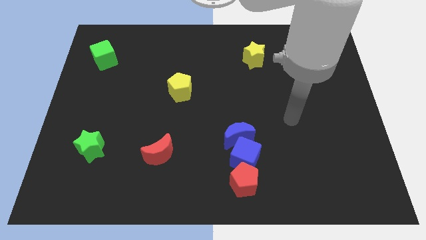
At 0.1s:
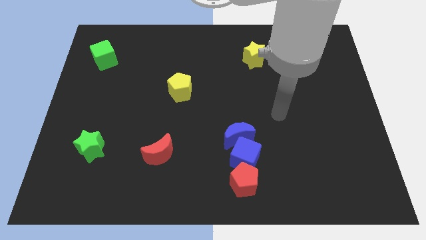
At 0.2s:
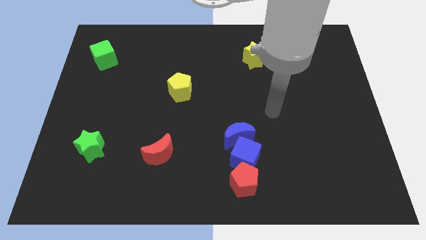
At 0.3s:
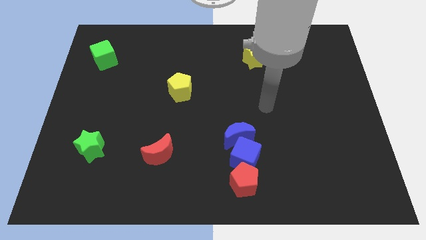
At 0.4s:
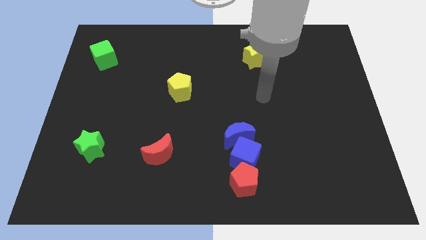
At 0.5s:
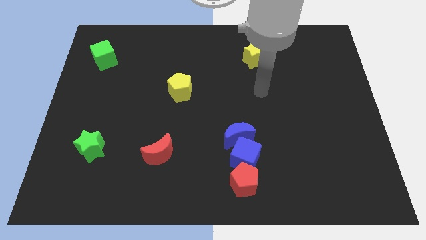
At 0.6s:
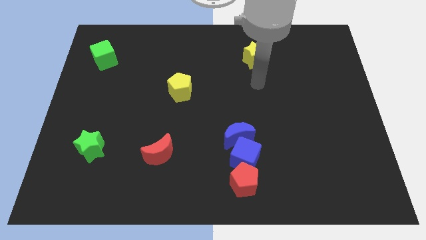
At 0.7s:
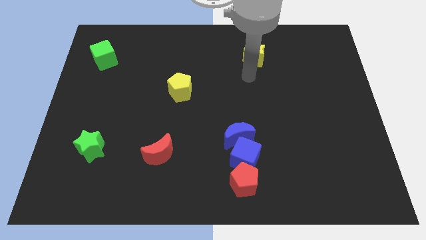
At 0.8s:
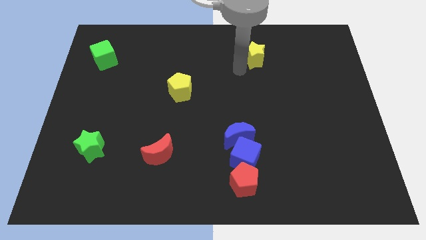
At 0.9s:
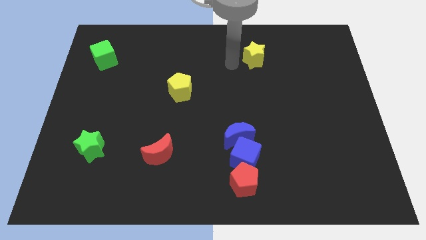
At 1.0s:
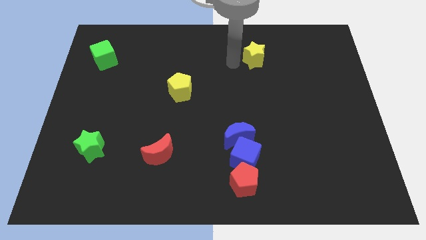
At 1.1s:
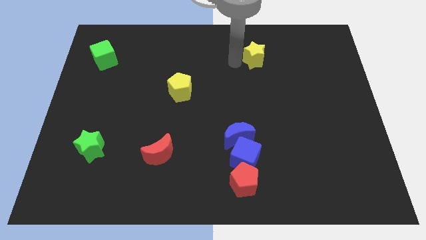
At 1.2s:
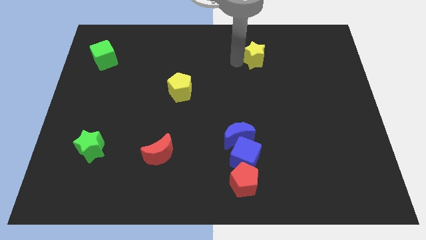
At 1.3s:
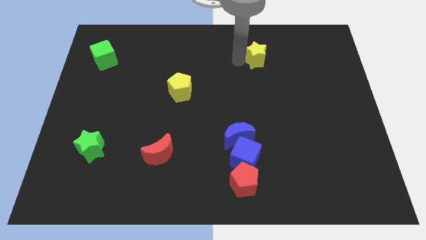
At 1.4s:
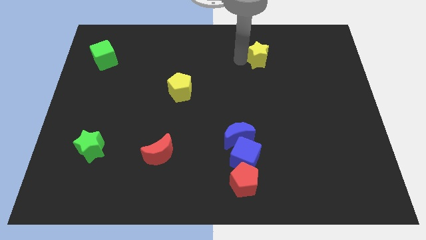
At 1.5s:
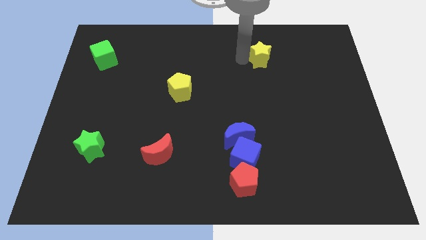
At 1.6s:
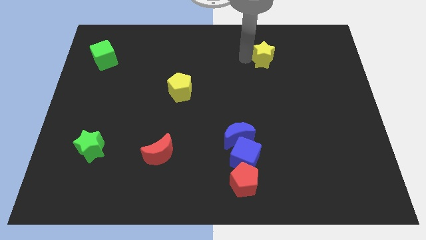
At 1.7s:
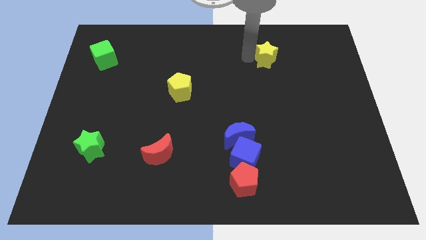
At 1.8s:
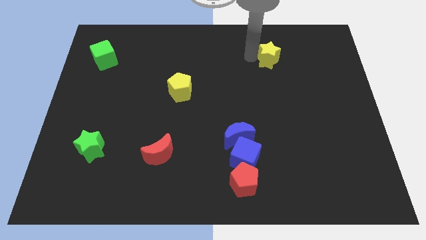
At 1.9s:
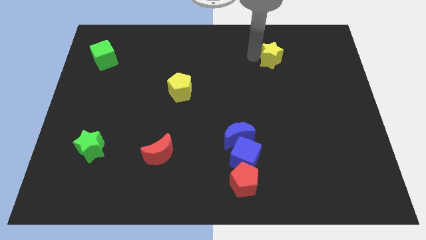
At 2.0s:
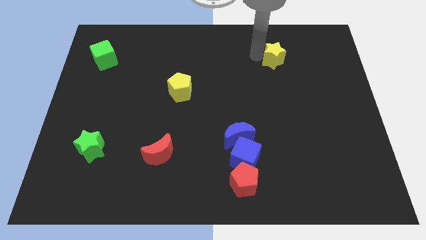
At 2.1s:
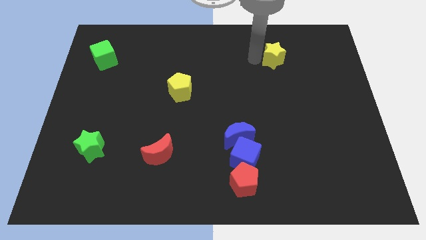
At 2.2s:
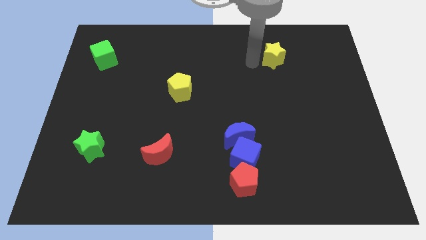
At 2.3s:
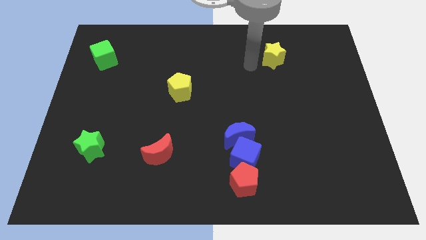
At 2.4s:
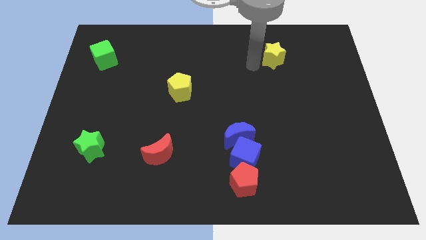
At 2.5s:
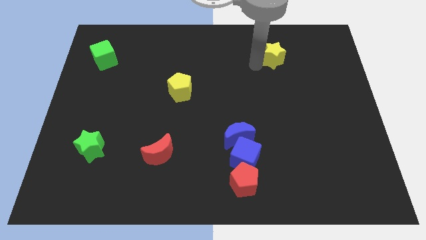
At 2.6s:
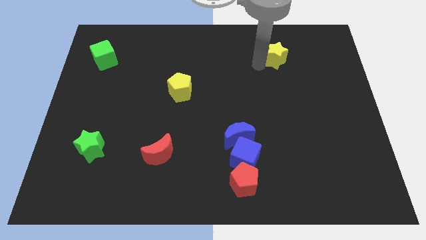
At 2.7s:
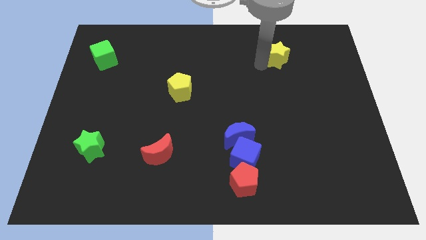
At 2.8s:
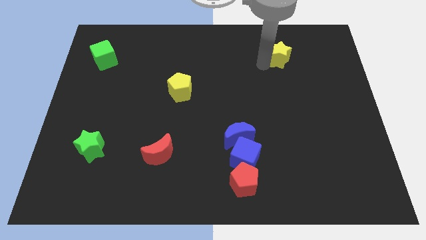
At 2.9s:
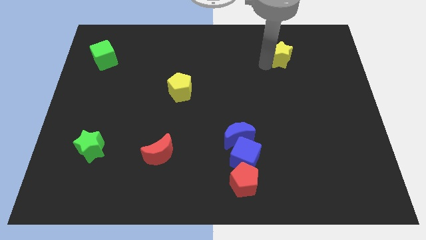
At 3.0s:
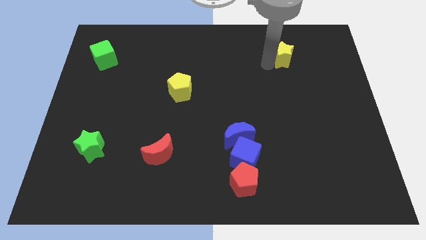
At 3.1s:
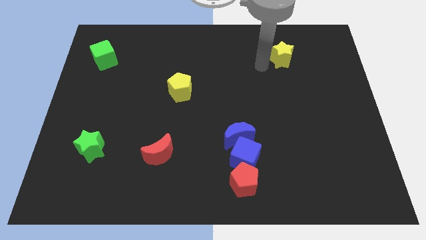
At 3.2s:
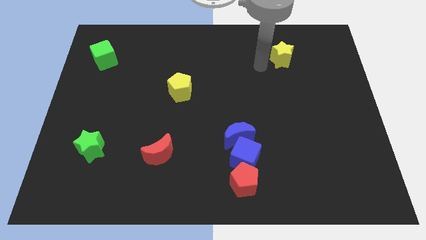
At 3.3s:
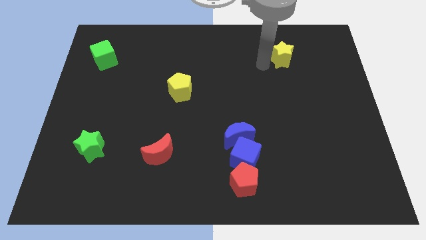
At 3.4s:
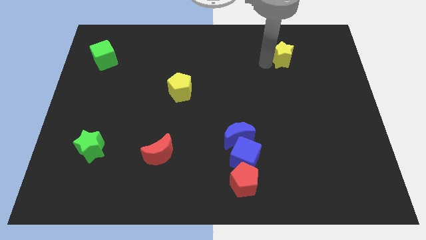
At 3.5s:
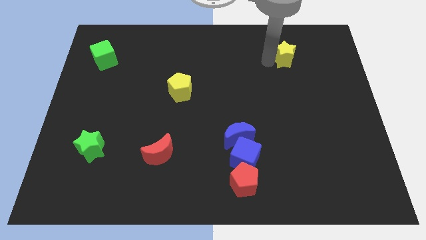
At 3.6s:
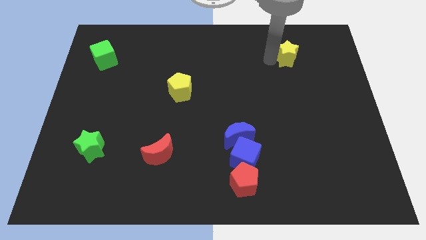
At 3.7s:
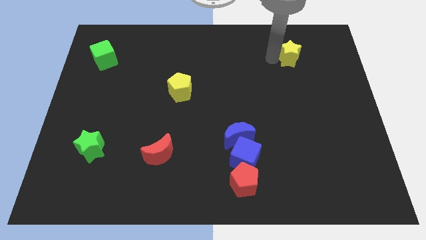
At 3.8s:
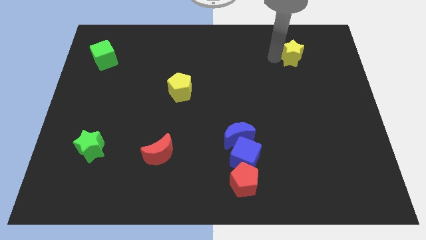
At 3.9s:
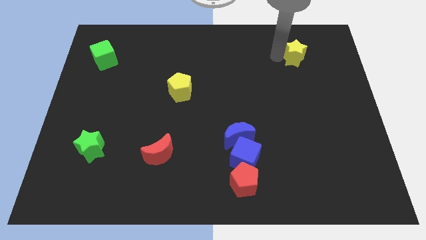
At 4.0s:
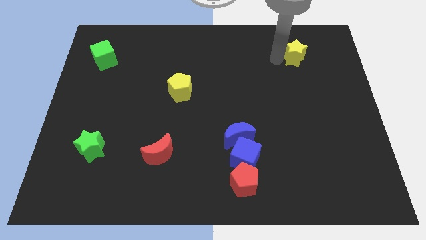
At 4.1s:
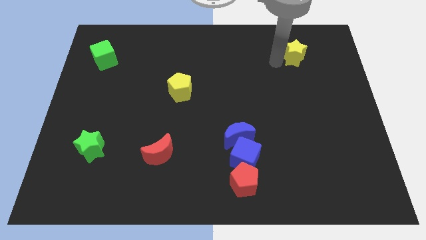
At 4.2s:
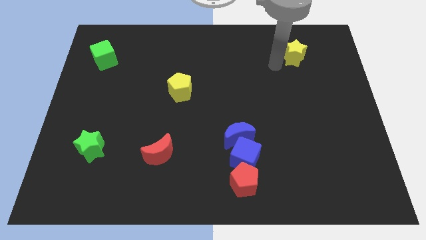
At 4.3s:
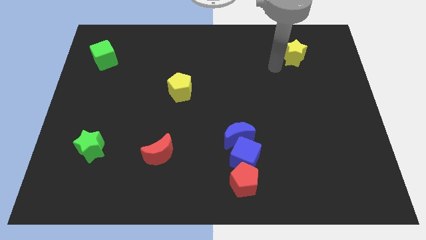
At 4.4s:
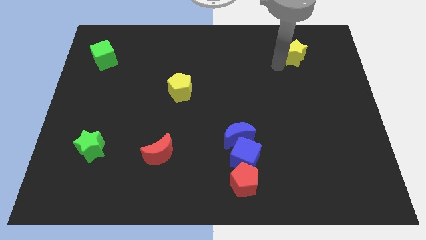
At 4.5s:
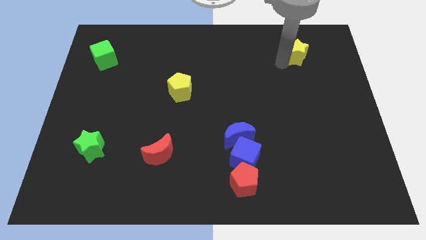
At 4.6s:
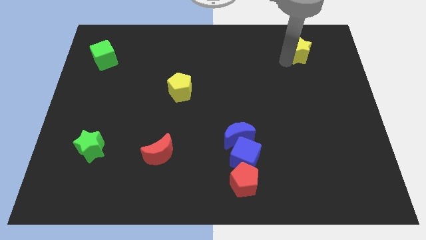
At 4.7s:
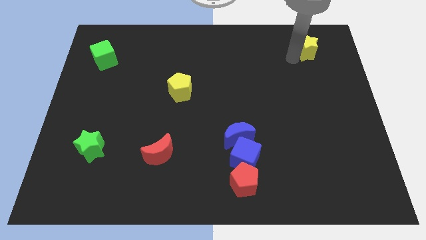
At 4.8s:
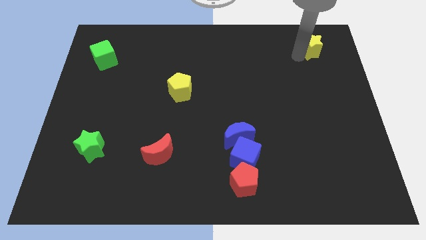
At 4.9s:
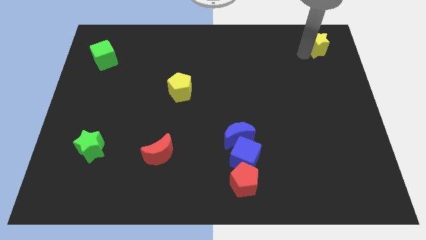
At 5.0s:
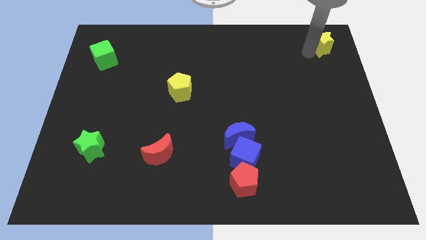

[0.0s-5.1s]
slide the yellow star to the top right corner

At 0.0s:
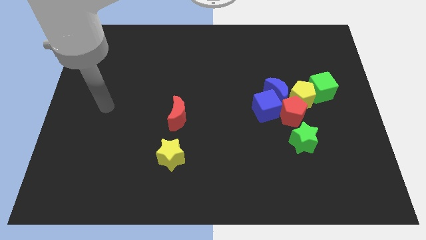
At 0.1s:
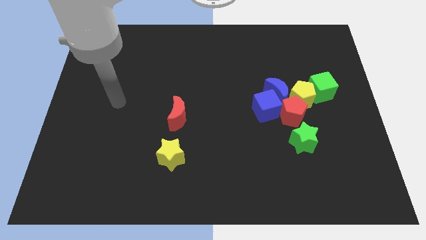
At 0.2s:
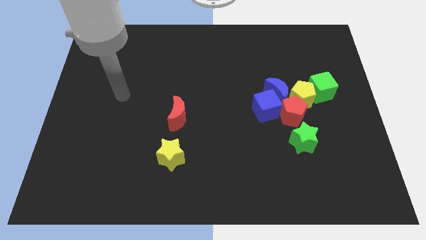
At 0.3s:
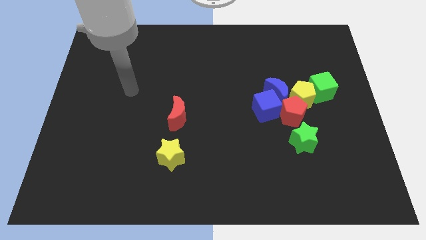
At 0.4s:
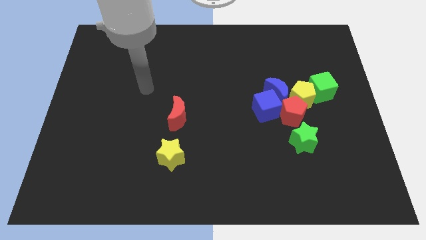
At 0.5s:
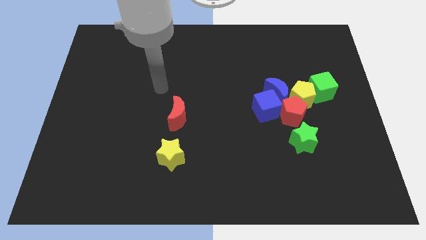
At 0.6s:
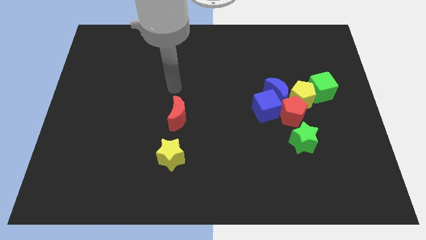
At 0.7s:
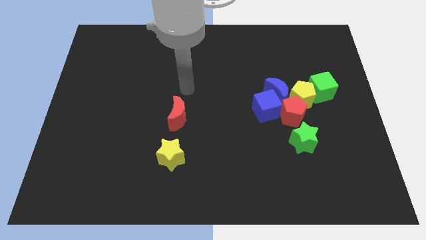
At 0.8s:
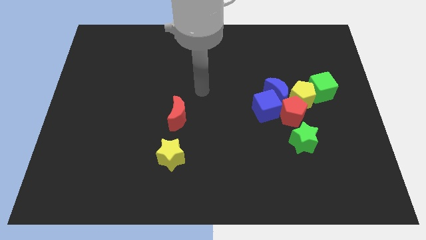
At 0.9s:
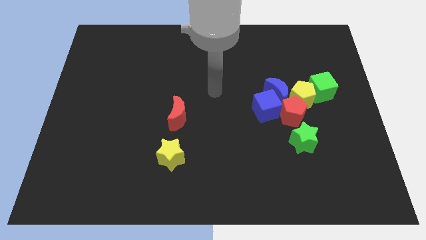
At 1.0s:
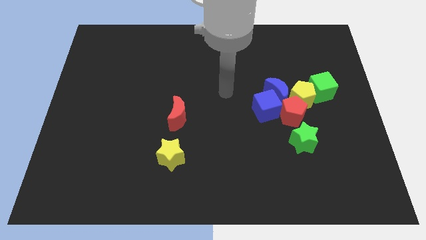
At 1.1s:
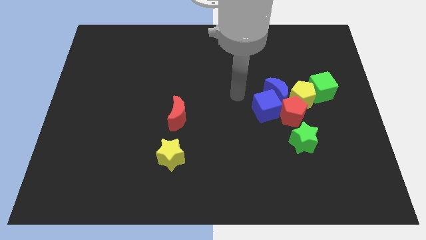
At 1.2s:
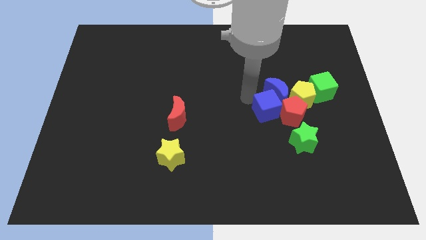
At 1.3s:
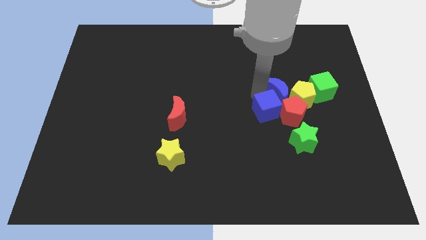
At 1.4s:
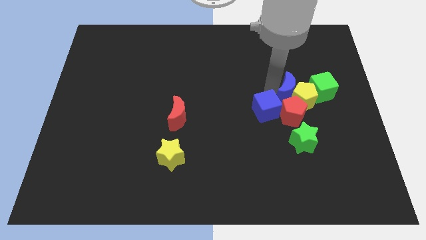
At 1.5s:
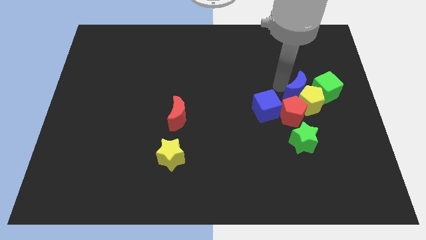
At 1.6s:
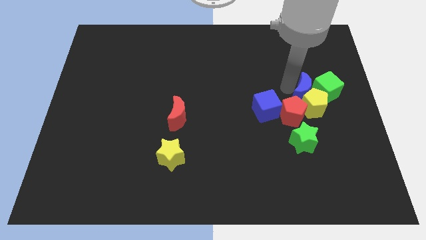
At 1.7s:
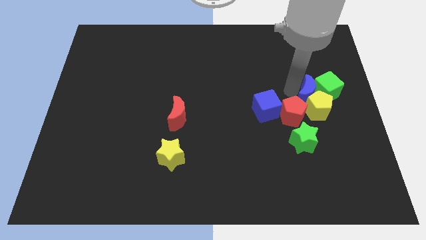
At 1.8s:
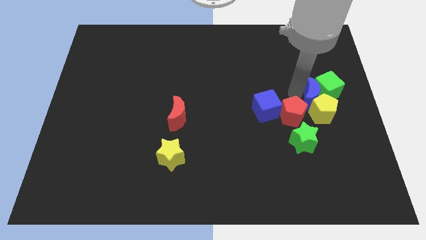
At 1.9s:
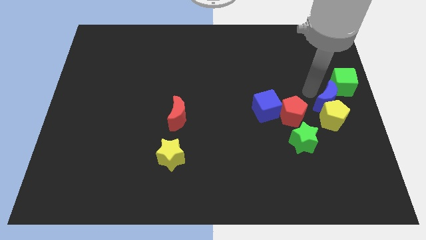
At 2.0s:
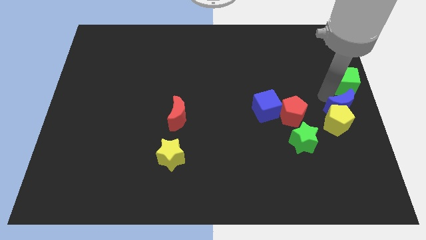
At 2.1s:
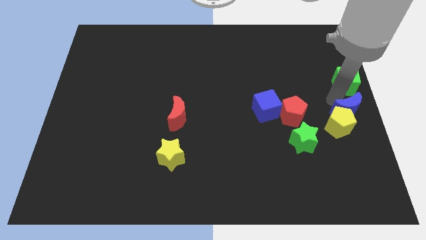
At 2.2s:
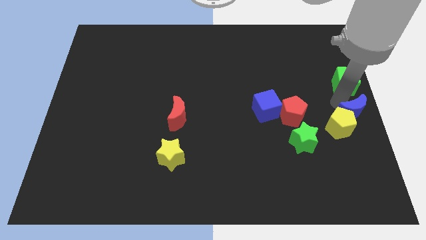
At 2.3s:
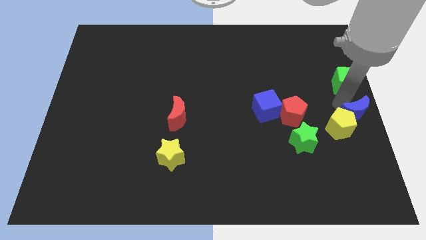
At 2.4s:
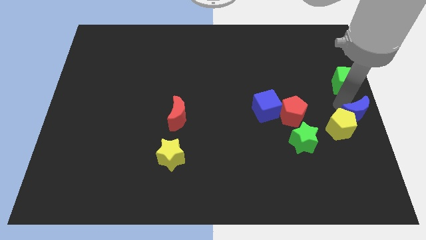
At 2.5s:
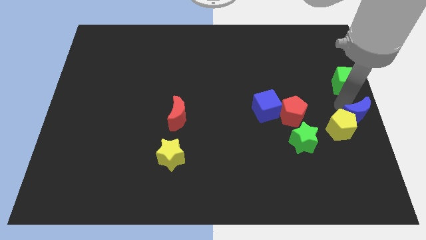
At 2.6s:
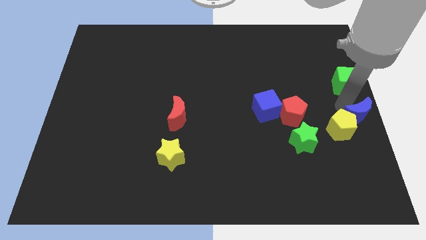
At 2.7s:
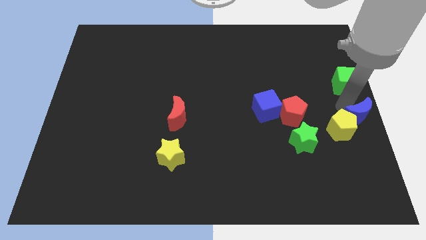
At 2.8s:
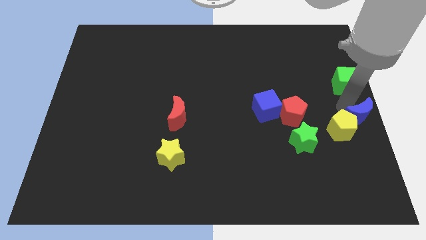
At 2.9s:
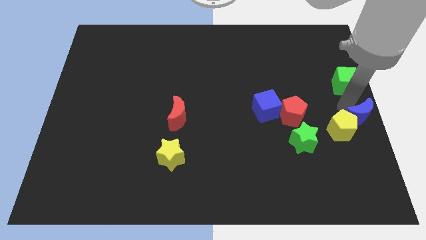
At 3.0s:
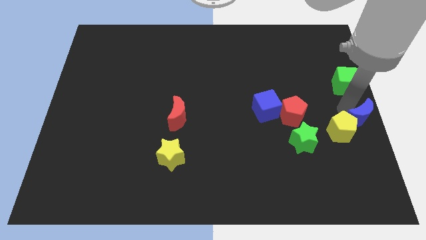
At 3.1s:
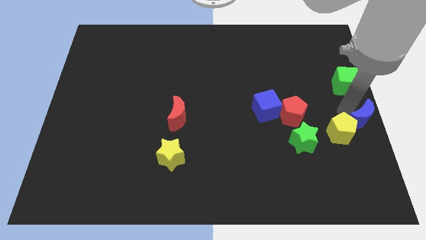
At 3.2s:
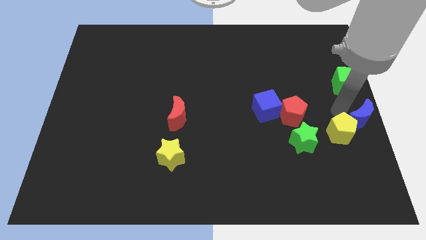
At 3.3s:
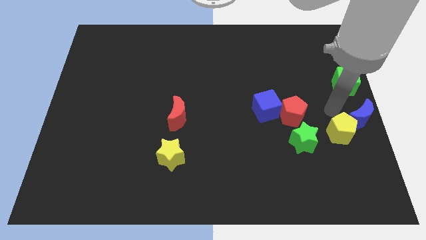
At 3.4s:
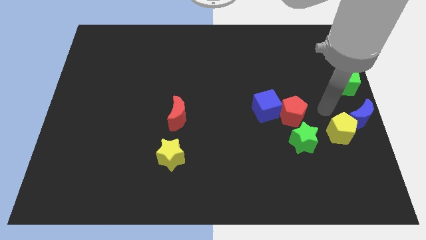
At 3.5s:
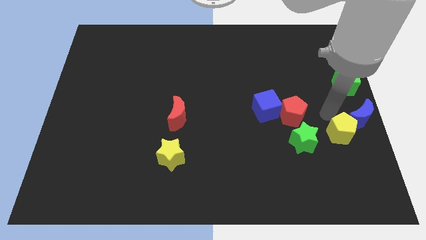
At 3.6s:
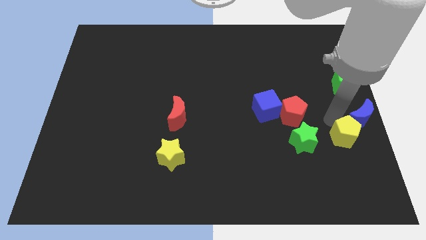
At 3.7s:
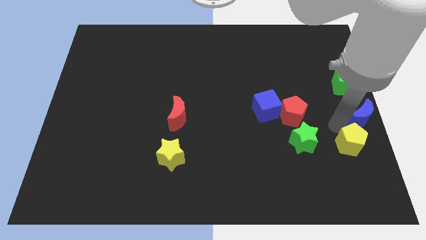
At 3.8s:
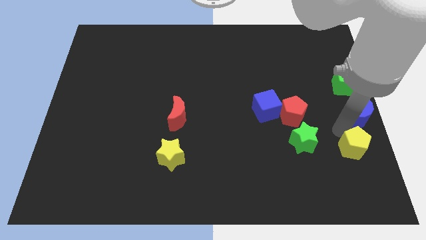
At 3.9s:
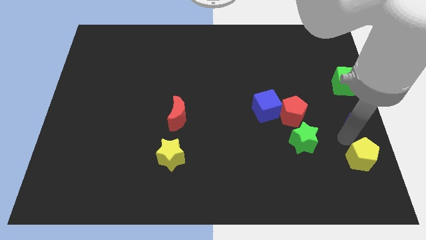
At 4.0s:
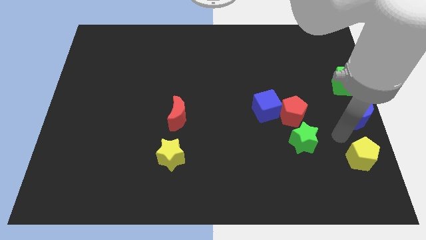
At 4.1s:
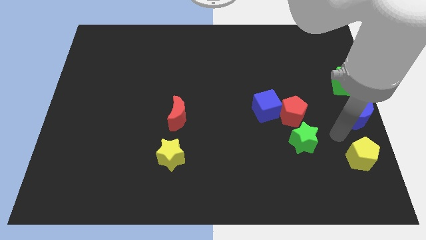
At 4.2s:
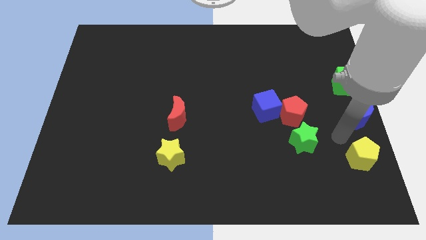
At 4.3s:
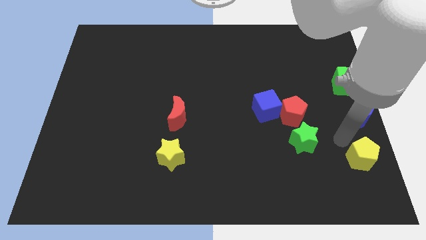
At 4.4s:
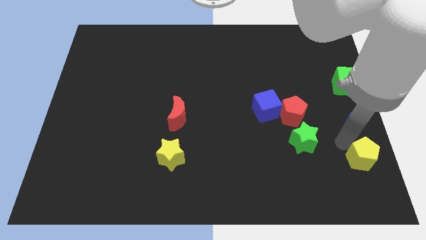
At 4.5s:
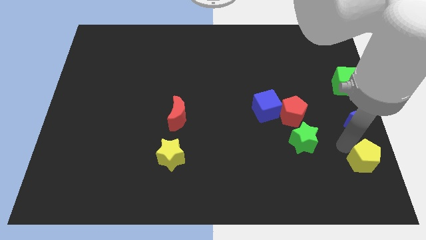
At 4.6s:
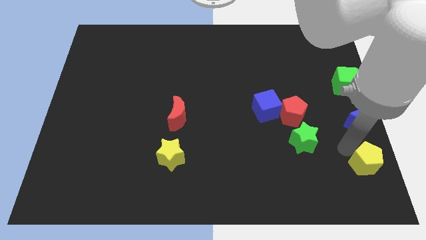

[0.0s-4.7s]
put the yellow pentagon to the bottom right of the board
